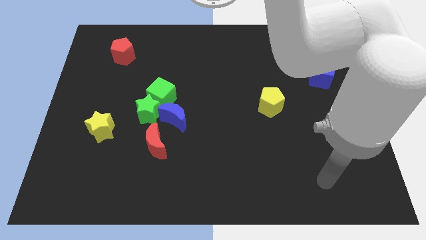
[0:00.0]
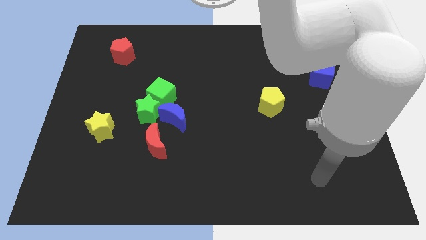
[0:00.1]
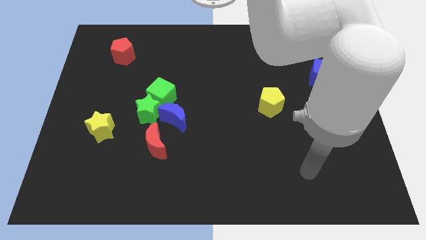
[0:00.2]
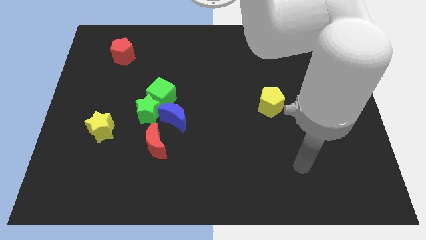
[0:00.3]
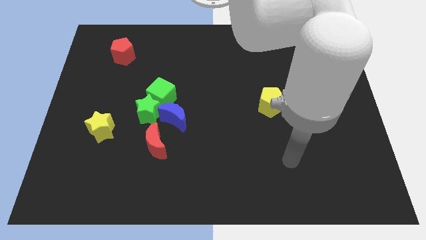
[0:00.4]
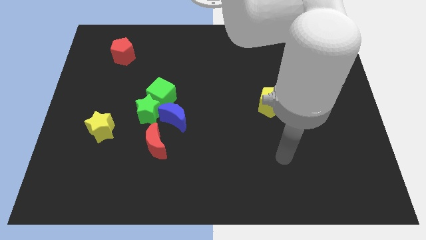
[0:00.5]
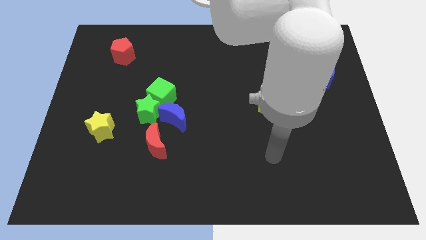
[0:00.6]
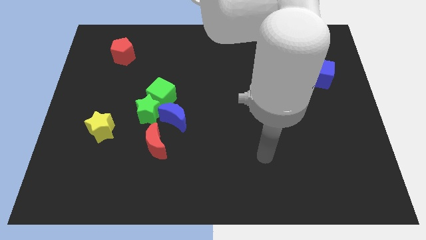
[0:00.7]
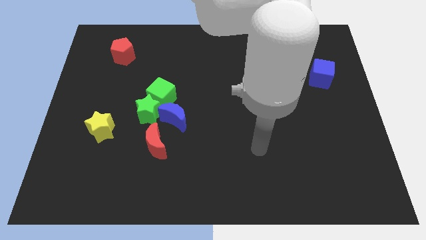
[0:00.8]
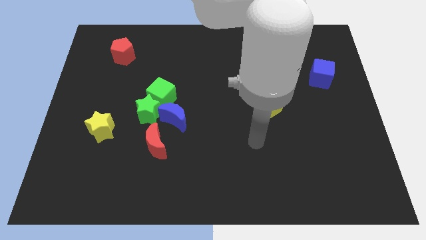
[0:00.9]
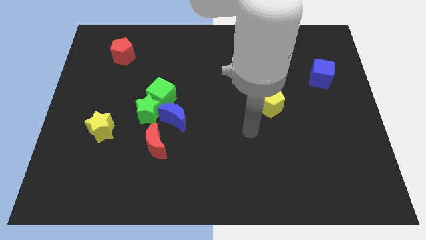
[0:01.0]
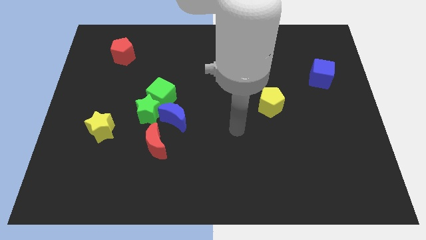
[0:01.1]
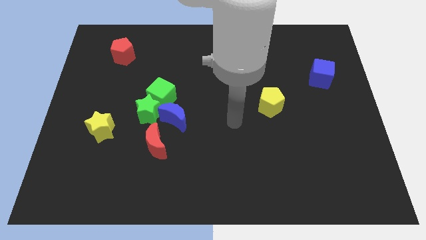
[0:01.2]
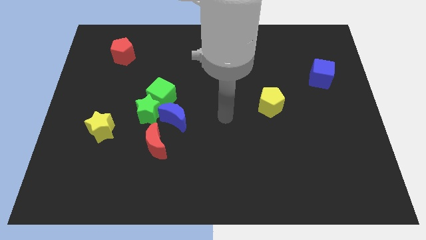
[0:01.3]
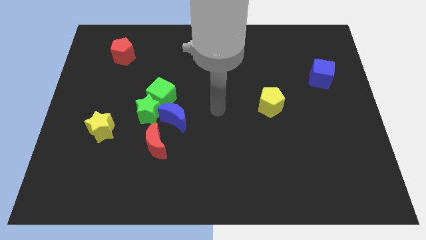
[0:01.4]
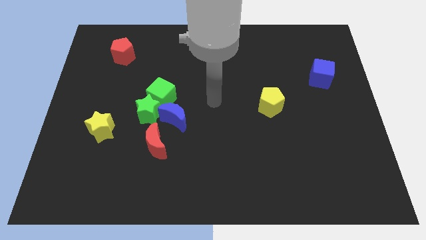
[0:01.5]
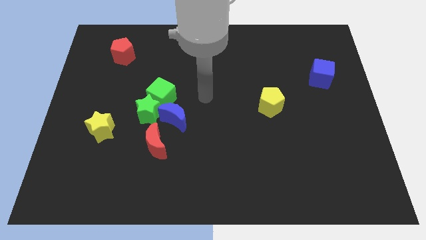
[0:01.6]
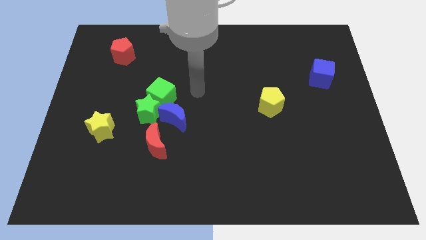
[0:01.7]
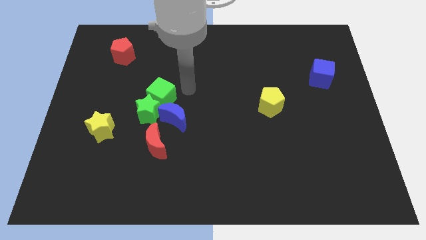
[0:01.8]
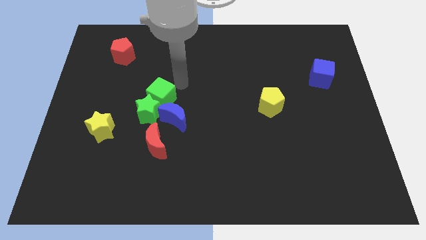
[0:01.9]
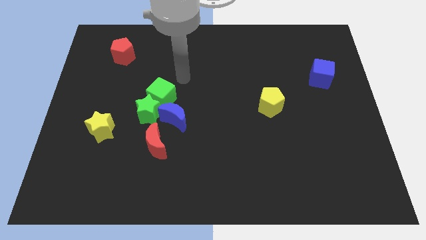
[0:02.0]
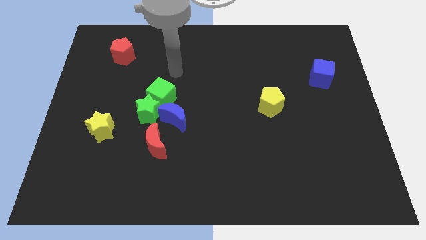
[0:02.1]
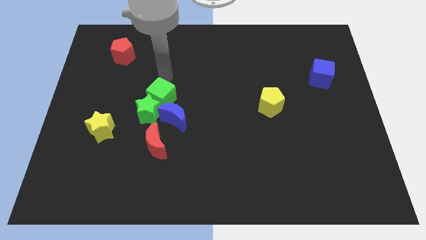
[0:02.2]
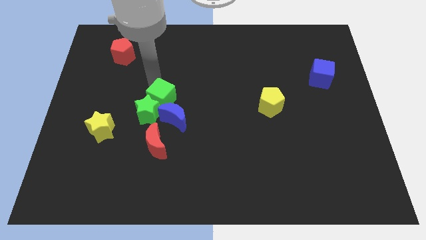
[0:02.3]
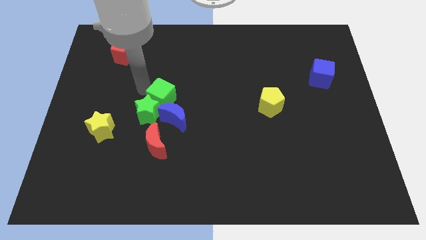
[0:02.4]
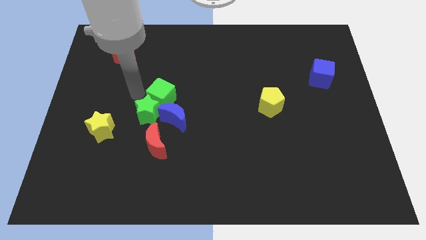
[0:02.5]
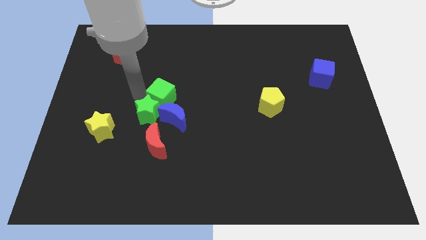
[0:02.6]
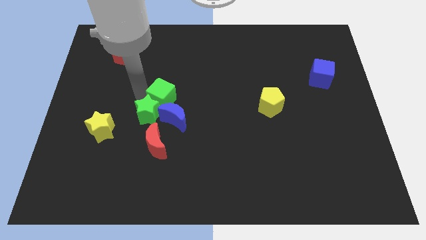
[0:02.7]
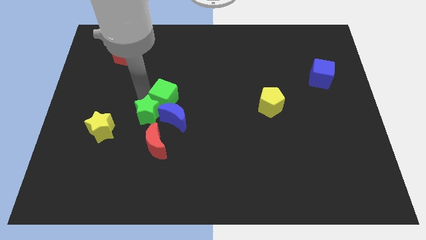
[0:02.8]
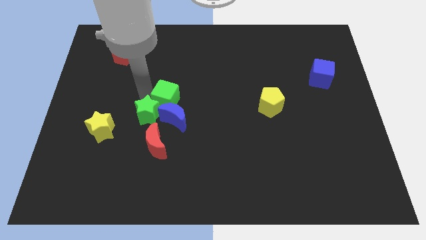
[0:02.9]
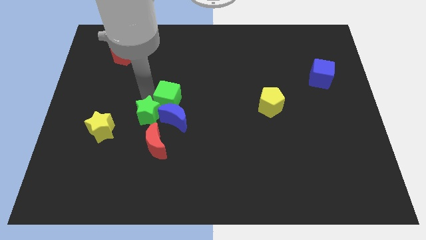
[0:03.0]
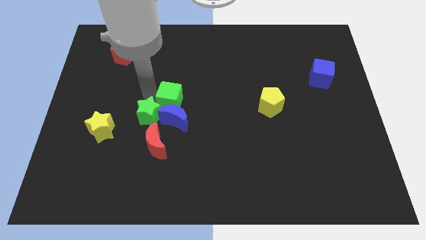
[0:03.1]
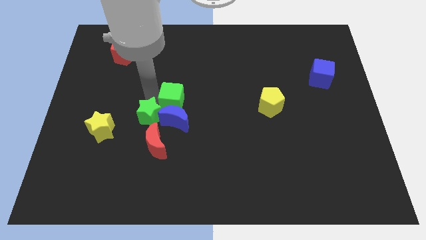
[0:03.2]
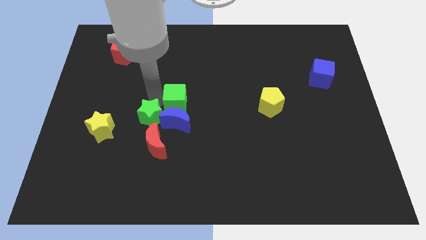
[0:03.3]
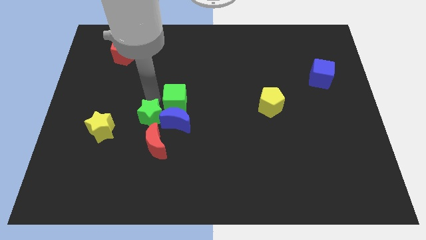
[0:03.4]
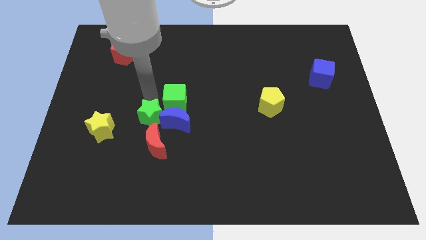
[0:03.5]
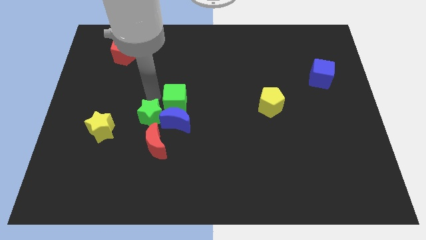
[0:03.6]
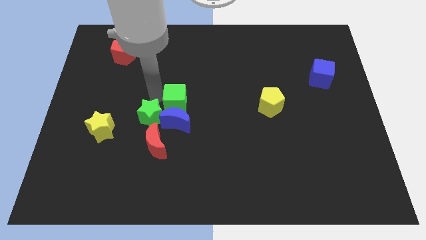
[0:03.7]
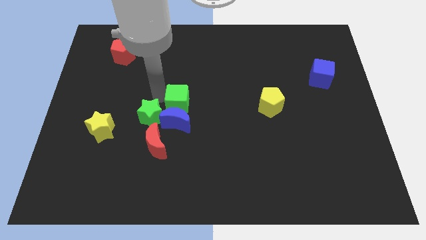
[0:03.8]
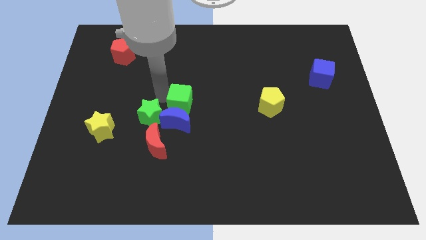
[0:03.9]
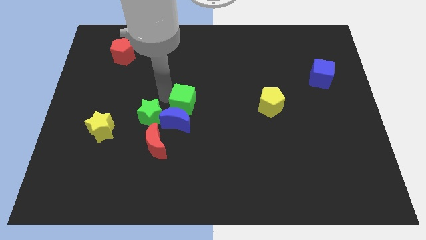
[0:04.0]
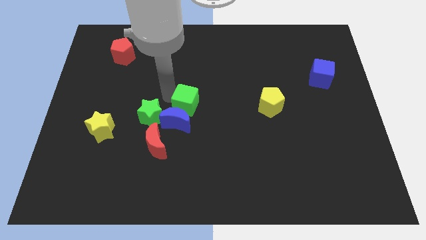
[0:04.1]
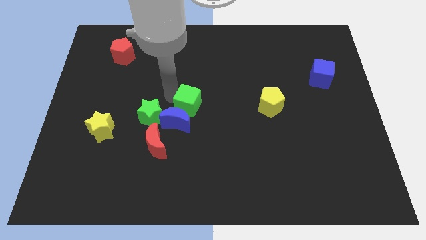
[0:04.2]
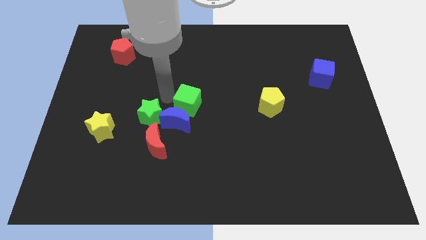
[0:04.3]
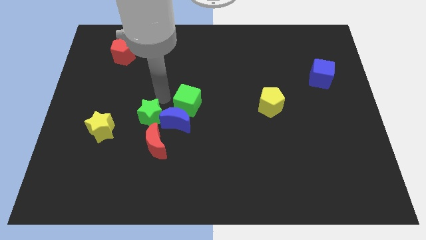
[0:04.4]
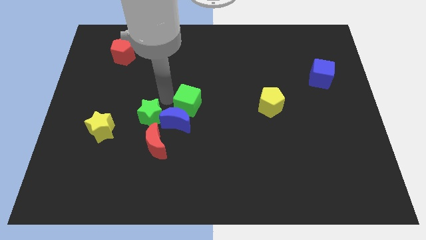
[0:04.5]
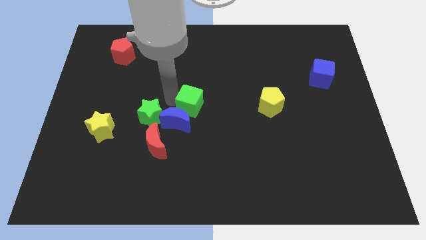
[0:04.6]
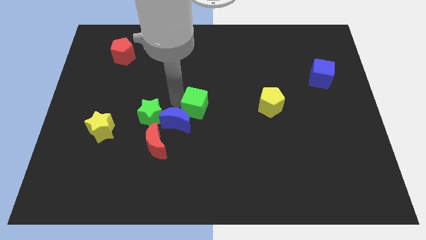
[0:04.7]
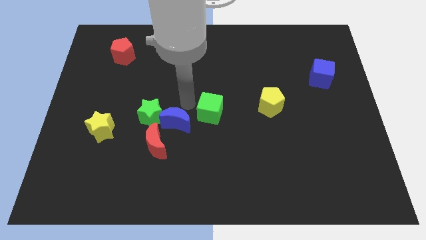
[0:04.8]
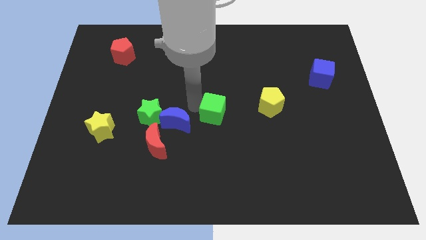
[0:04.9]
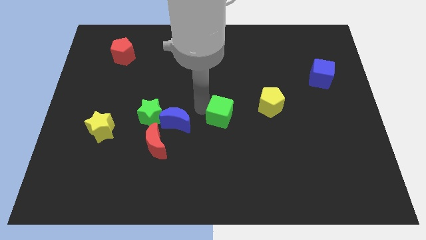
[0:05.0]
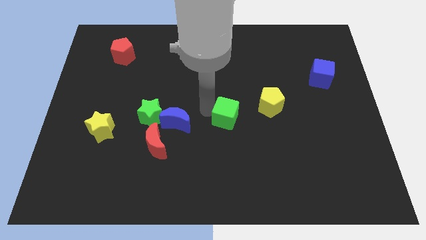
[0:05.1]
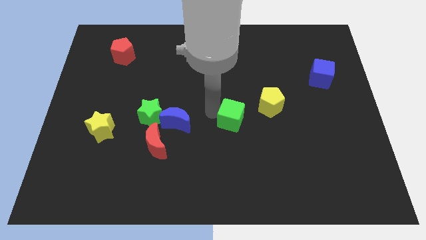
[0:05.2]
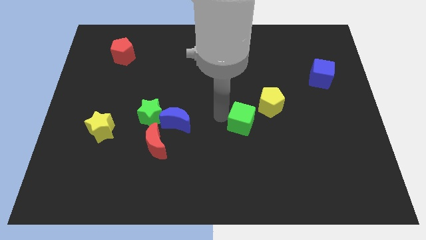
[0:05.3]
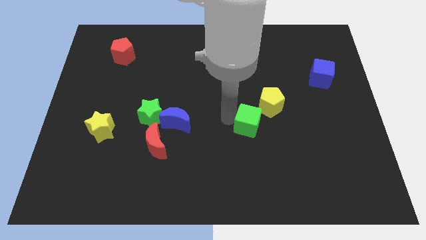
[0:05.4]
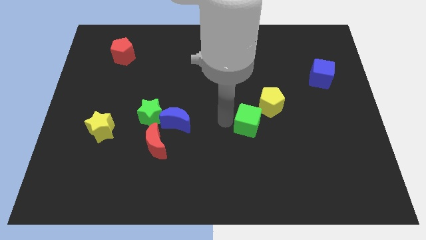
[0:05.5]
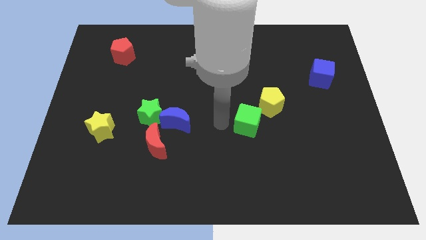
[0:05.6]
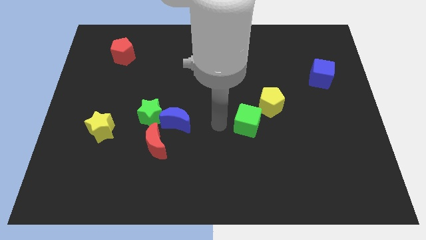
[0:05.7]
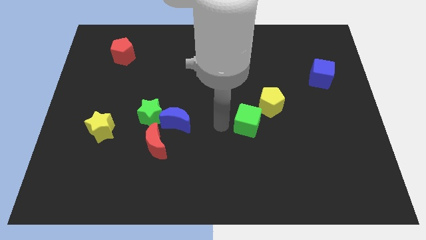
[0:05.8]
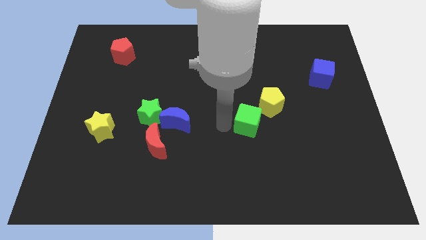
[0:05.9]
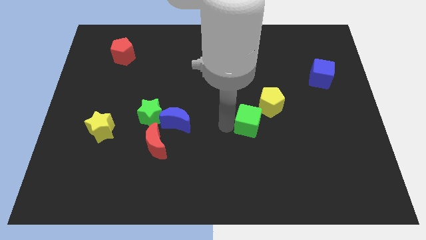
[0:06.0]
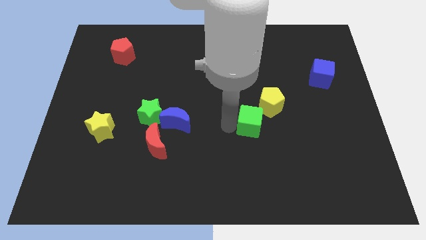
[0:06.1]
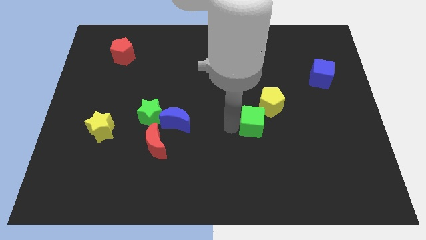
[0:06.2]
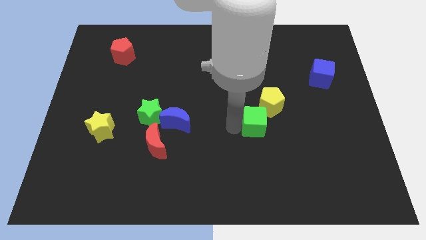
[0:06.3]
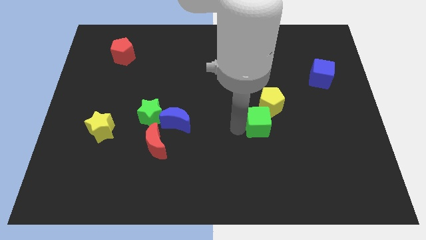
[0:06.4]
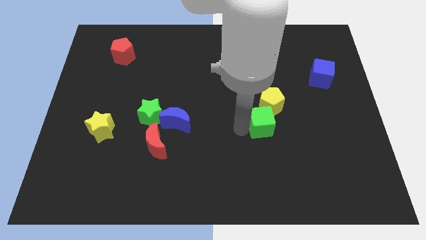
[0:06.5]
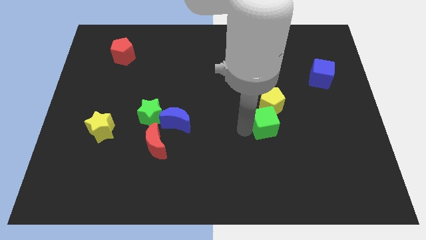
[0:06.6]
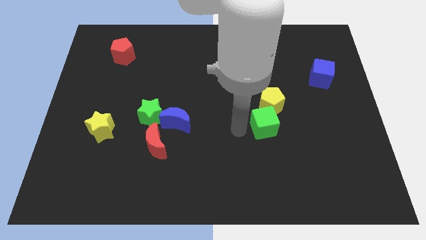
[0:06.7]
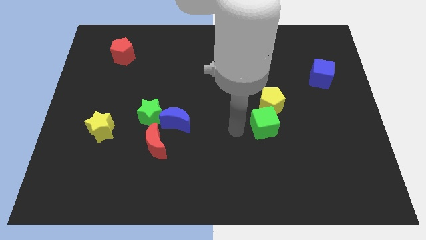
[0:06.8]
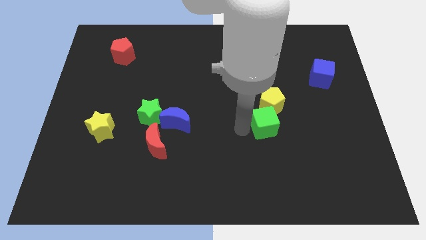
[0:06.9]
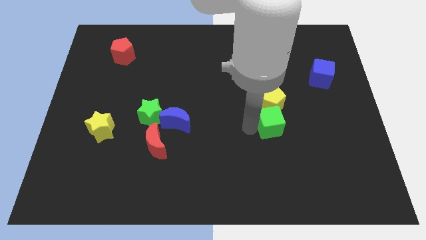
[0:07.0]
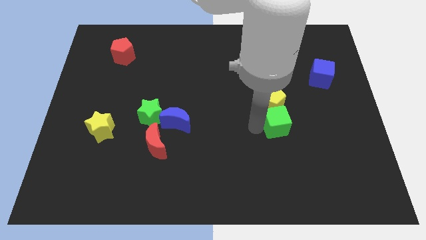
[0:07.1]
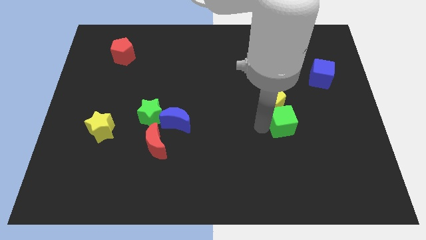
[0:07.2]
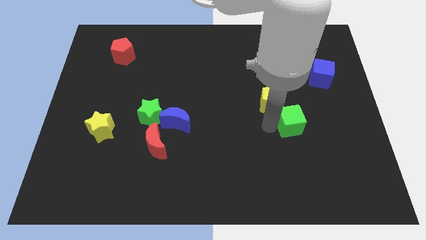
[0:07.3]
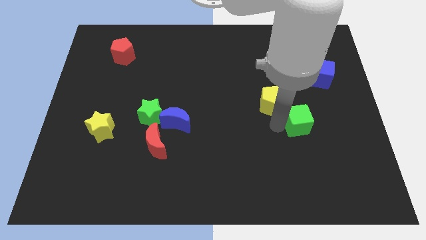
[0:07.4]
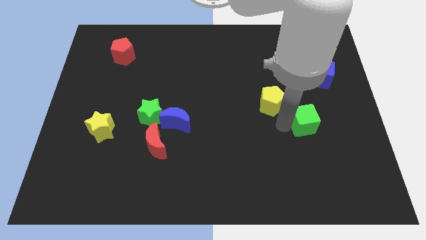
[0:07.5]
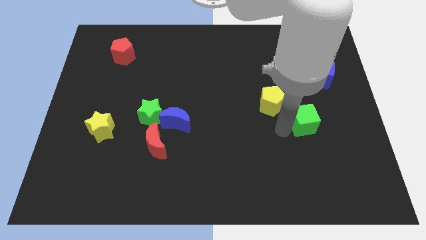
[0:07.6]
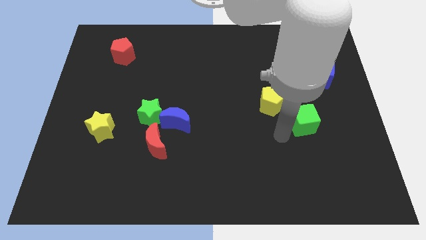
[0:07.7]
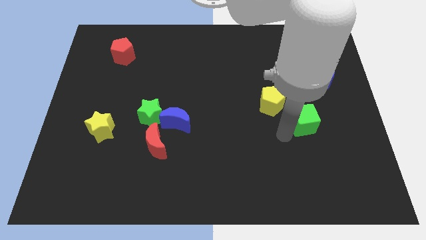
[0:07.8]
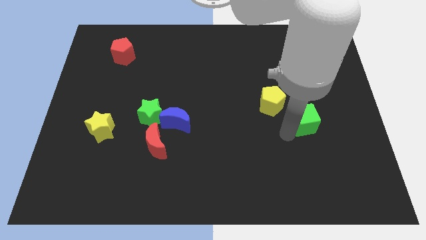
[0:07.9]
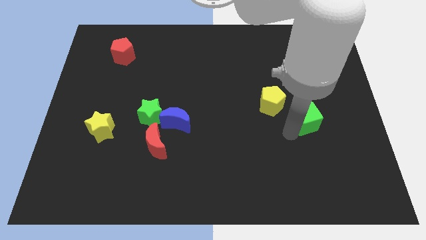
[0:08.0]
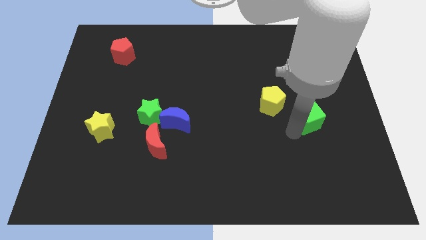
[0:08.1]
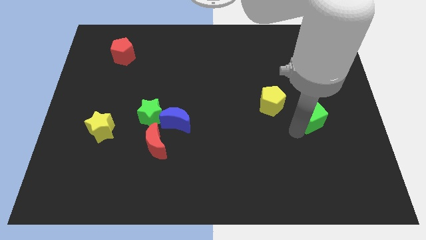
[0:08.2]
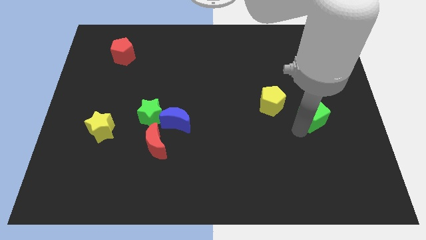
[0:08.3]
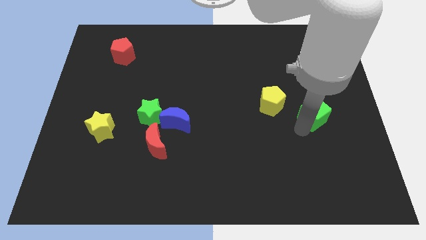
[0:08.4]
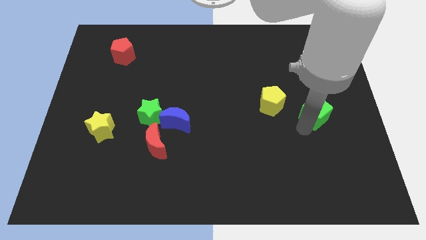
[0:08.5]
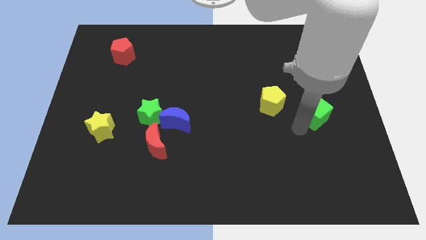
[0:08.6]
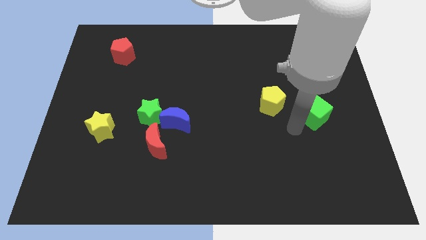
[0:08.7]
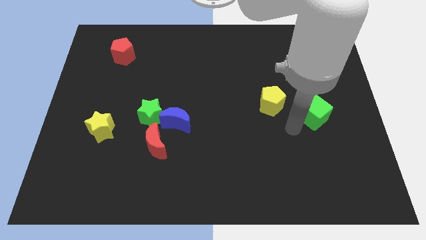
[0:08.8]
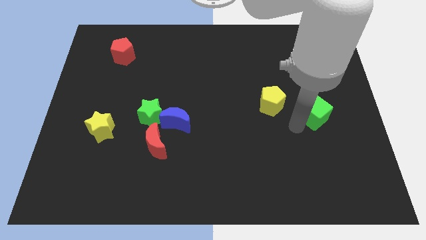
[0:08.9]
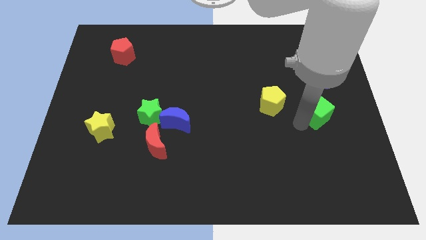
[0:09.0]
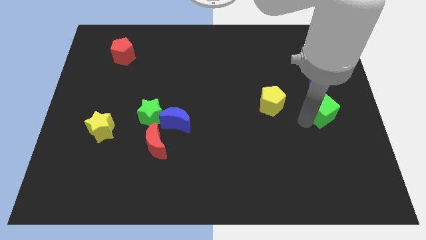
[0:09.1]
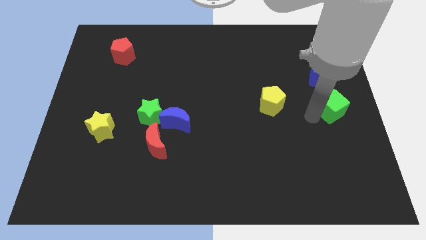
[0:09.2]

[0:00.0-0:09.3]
put the green cube to the right side of the board
